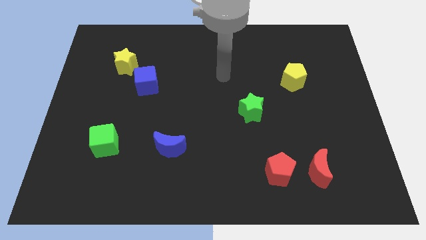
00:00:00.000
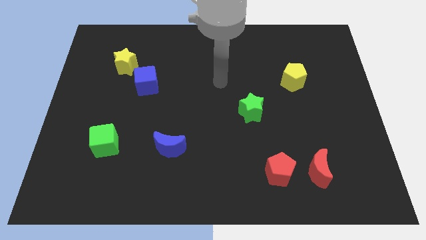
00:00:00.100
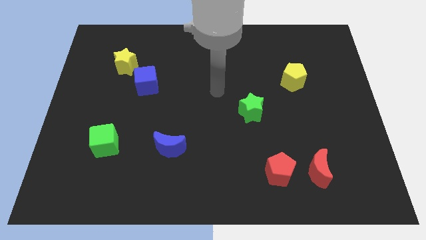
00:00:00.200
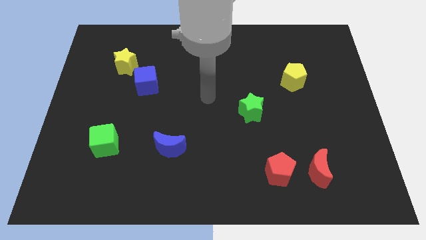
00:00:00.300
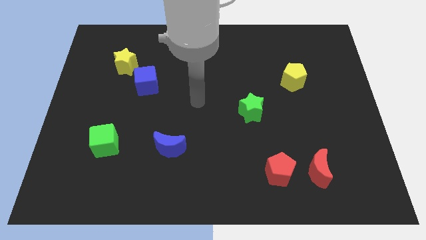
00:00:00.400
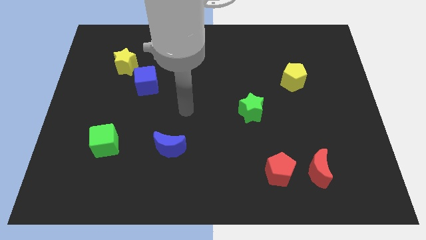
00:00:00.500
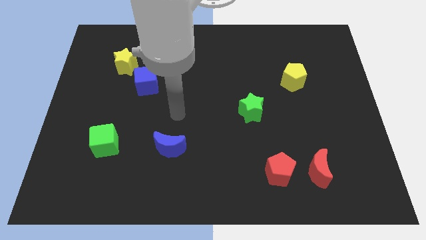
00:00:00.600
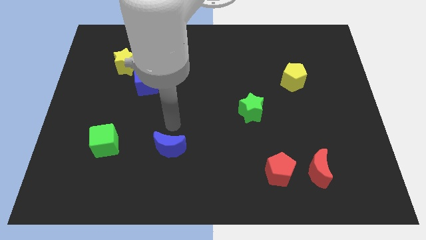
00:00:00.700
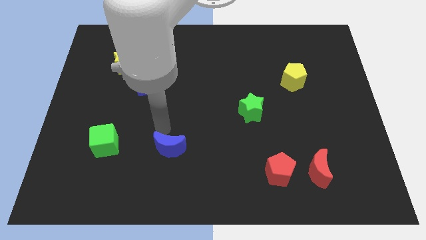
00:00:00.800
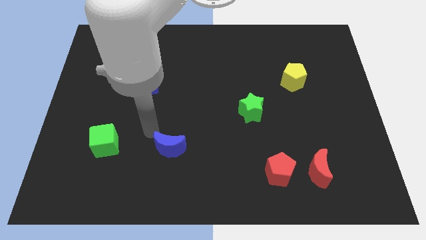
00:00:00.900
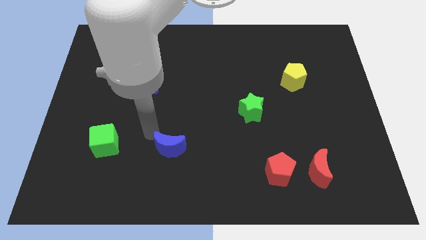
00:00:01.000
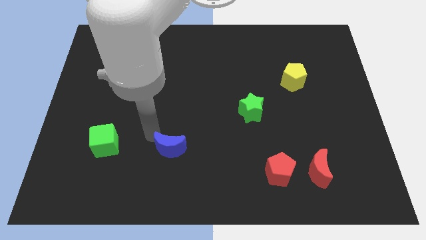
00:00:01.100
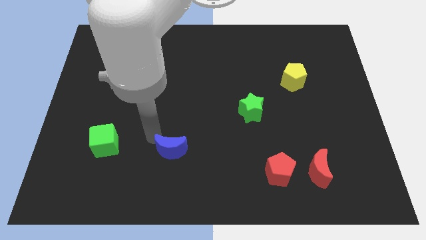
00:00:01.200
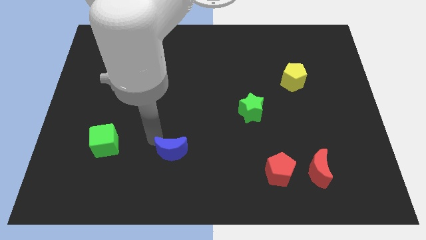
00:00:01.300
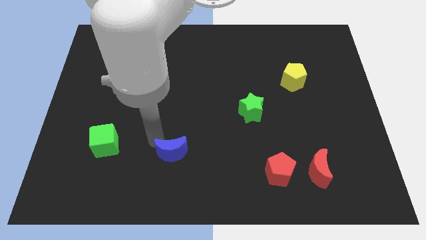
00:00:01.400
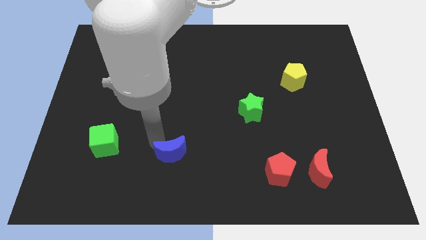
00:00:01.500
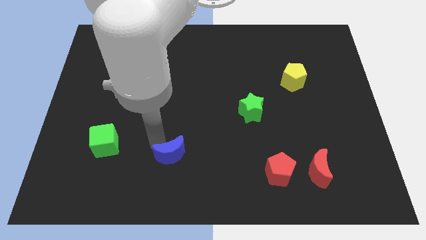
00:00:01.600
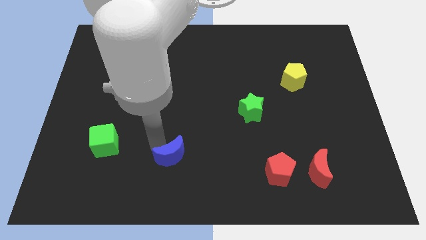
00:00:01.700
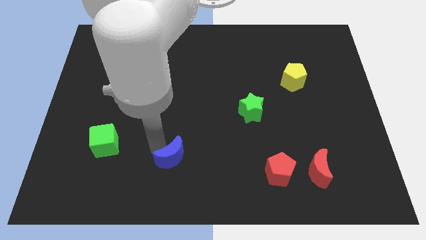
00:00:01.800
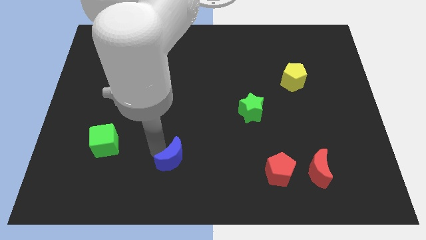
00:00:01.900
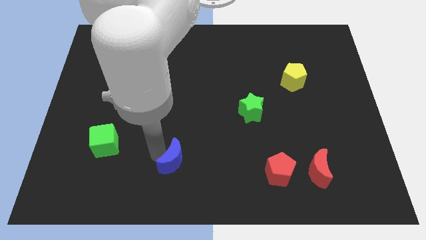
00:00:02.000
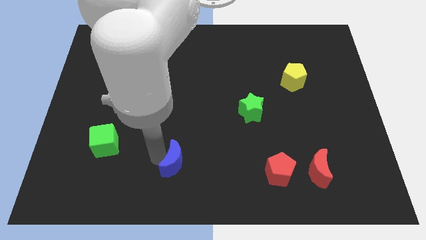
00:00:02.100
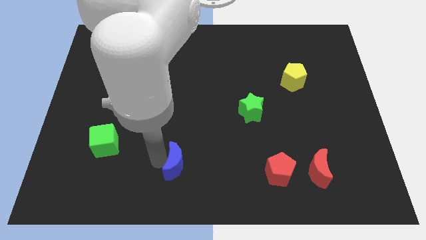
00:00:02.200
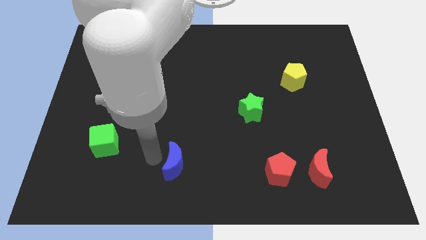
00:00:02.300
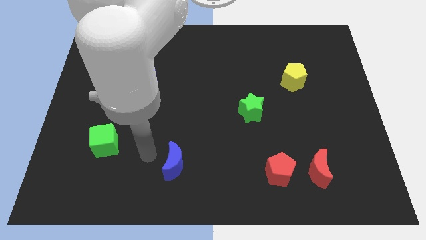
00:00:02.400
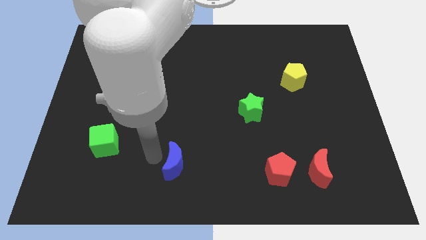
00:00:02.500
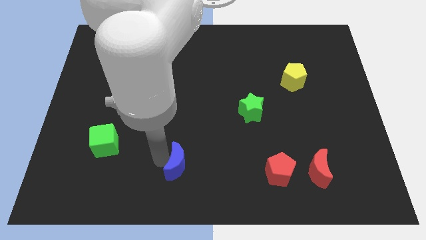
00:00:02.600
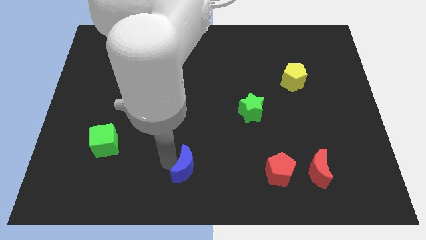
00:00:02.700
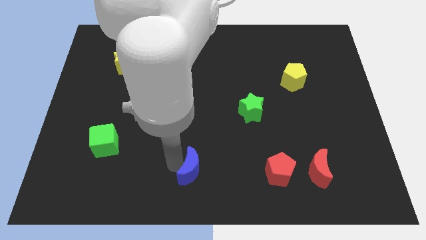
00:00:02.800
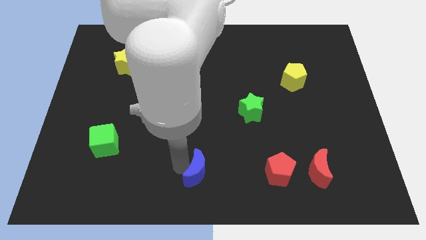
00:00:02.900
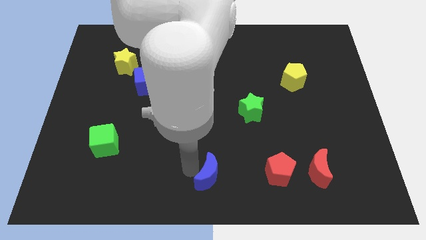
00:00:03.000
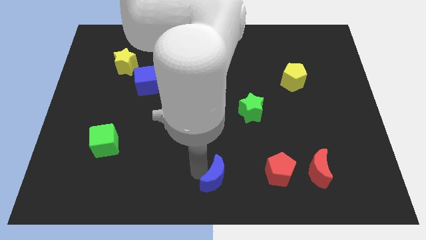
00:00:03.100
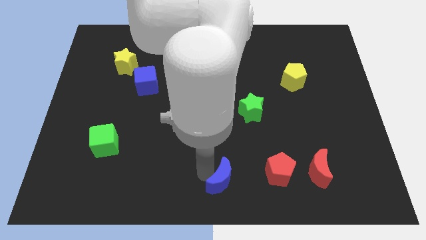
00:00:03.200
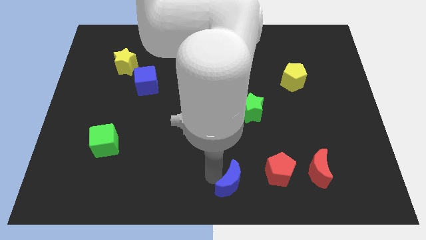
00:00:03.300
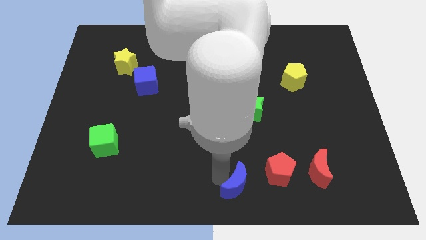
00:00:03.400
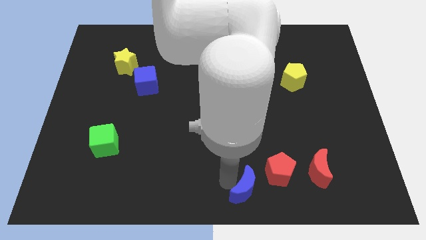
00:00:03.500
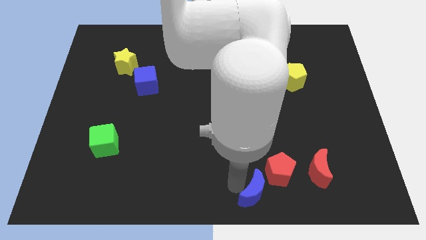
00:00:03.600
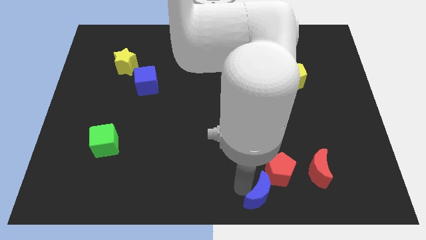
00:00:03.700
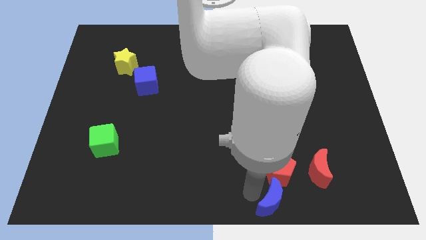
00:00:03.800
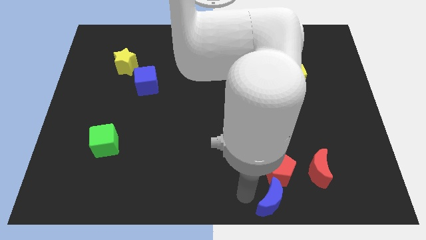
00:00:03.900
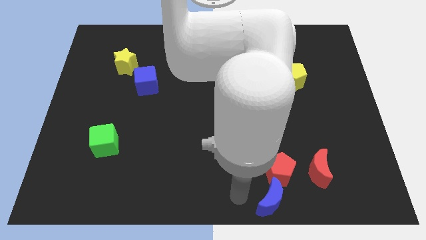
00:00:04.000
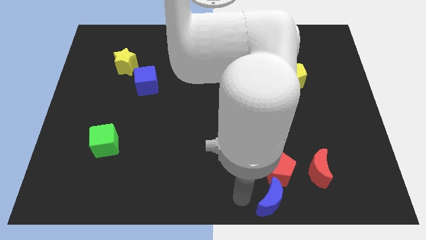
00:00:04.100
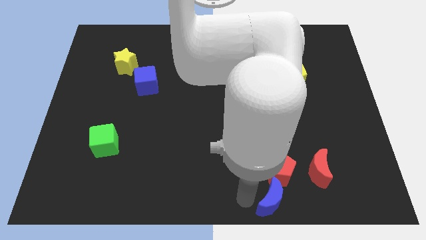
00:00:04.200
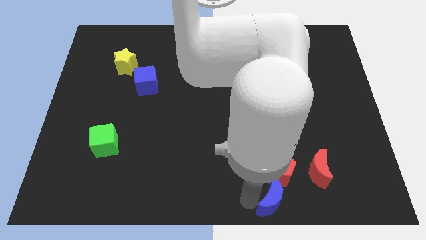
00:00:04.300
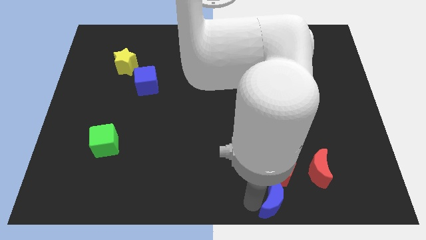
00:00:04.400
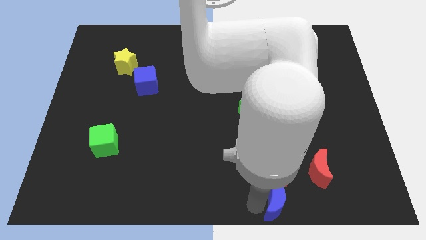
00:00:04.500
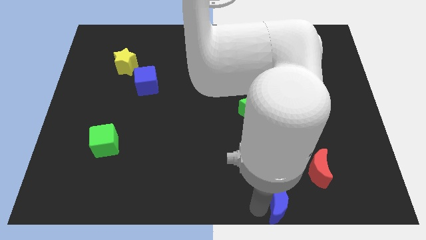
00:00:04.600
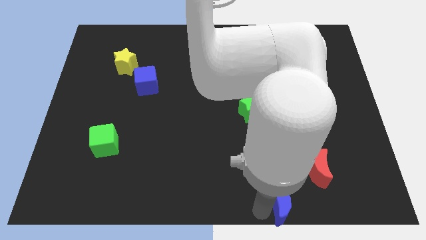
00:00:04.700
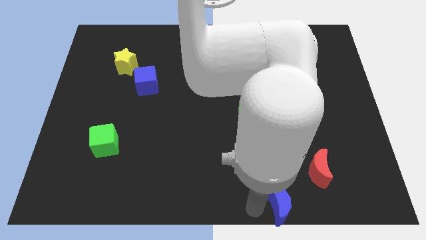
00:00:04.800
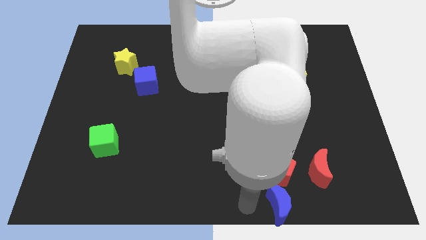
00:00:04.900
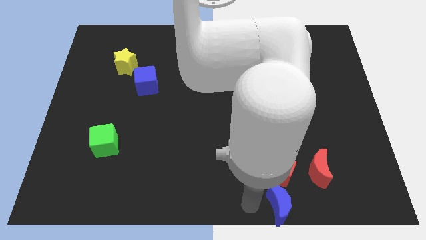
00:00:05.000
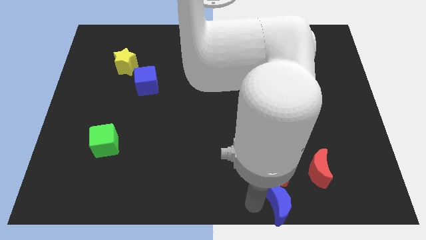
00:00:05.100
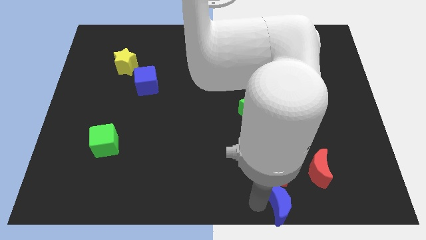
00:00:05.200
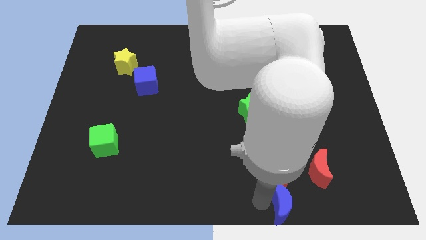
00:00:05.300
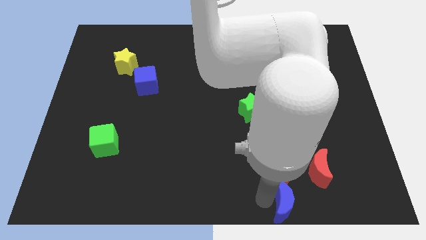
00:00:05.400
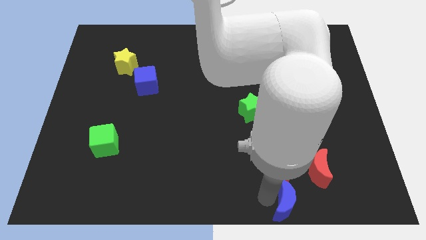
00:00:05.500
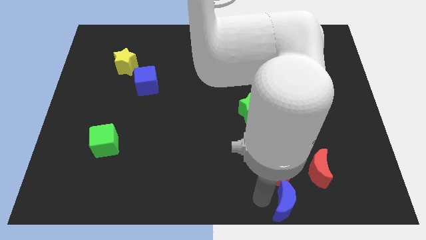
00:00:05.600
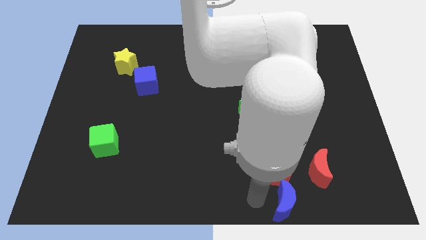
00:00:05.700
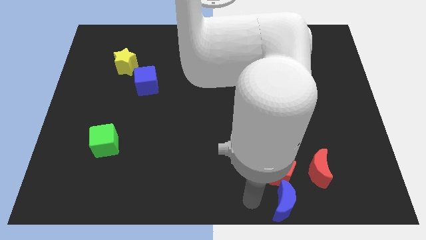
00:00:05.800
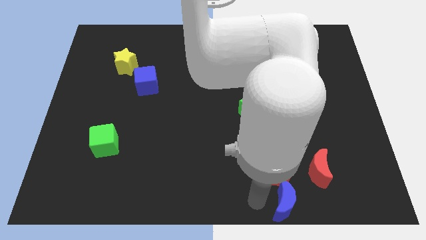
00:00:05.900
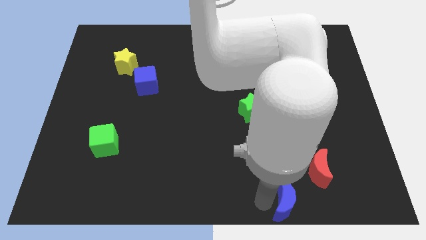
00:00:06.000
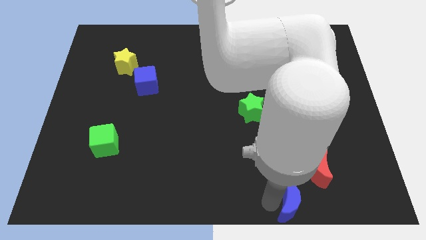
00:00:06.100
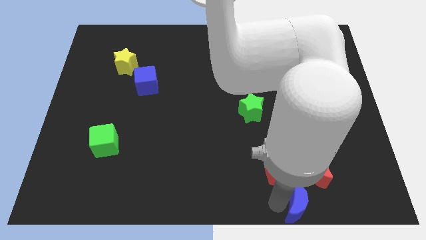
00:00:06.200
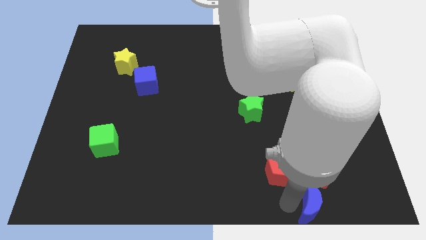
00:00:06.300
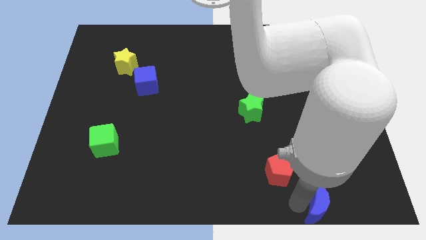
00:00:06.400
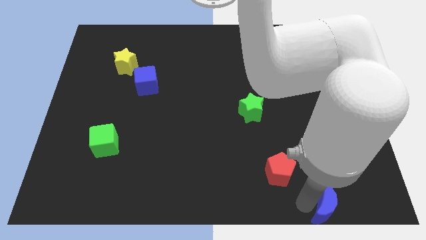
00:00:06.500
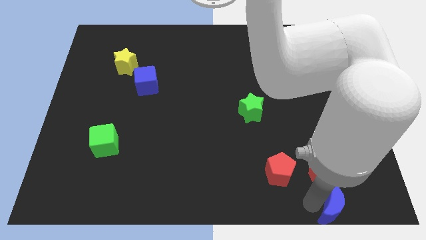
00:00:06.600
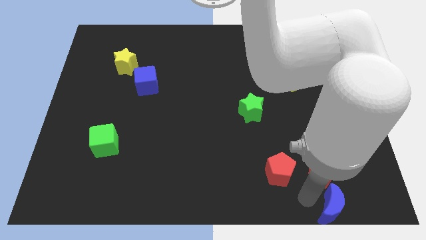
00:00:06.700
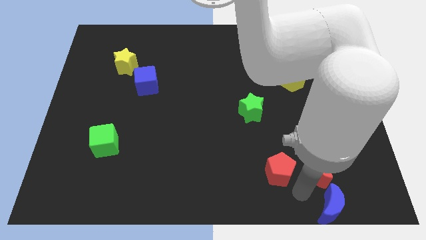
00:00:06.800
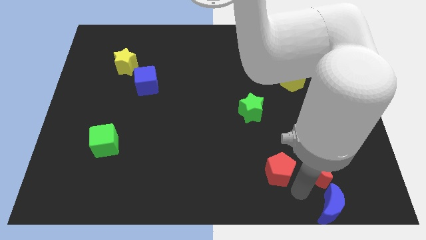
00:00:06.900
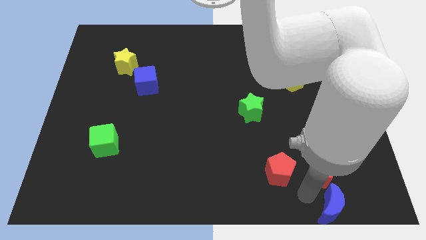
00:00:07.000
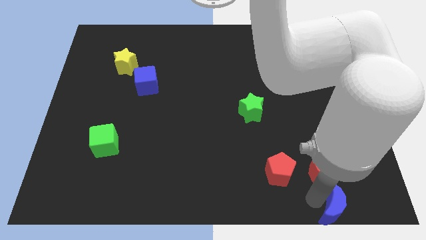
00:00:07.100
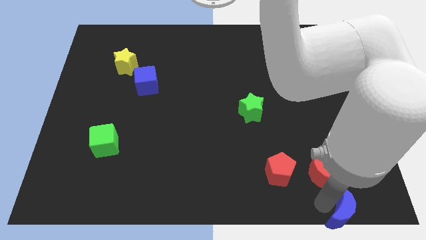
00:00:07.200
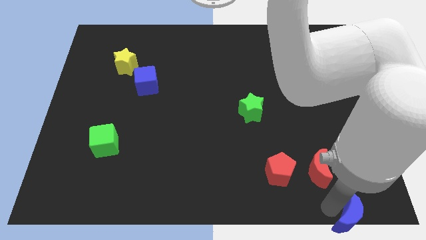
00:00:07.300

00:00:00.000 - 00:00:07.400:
push the blue moon to the lower right corner
